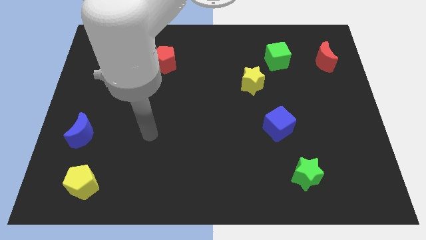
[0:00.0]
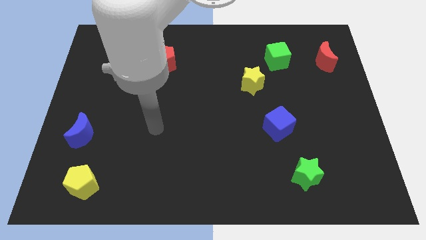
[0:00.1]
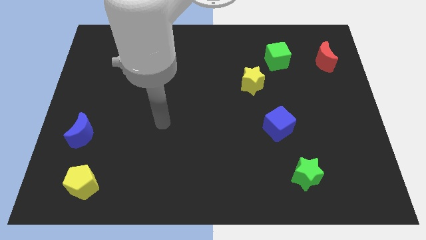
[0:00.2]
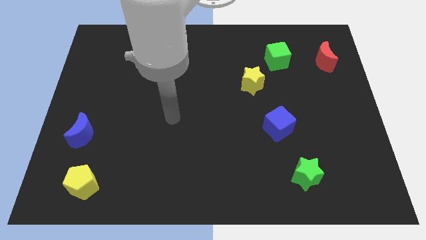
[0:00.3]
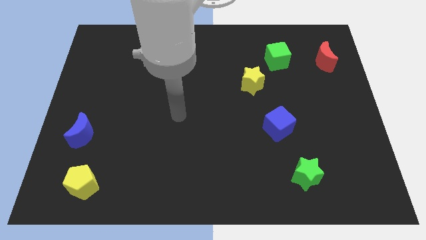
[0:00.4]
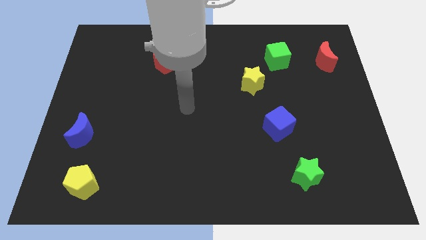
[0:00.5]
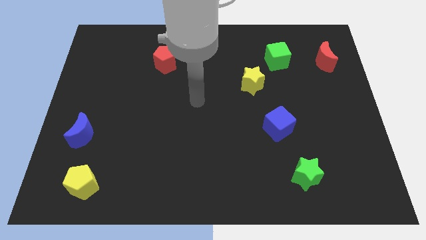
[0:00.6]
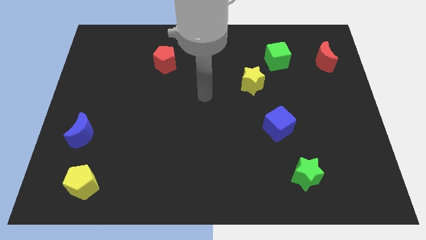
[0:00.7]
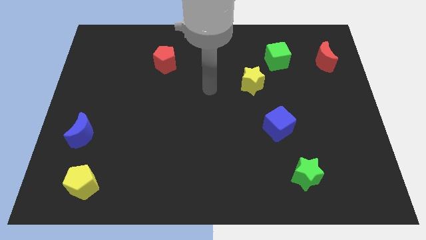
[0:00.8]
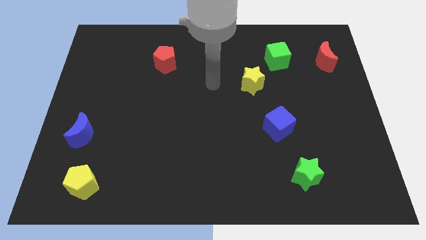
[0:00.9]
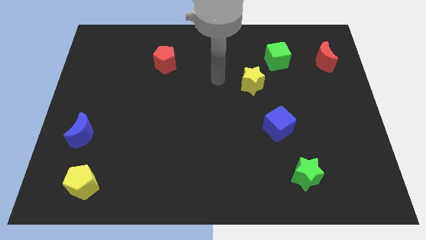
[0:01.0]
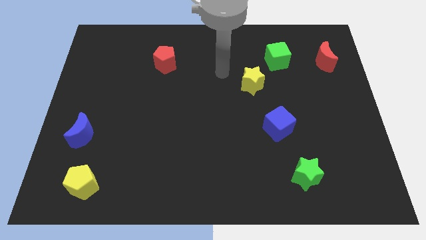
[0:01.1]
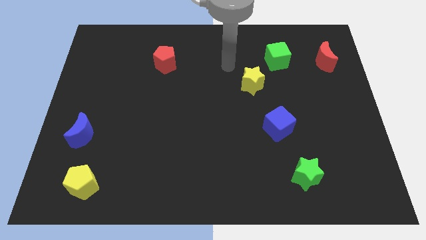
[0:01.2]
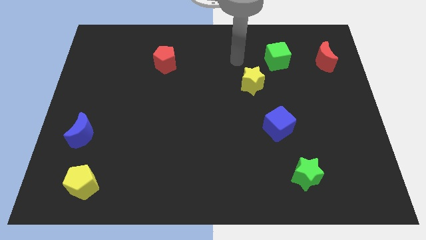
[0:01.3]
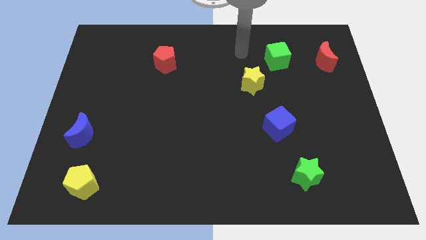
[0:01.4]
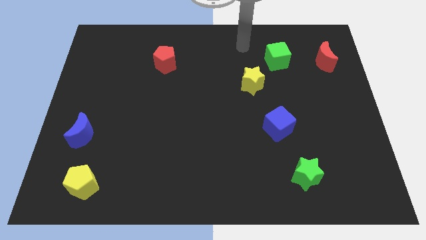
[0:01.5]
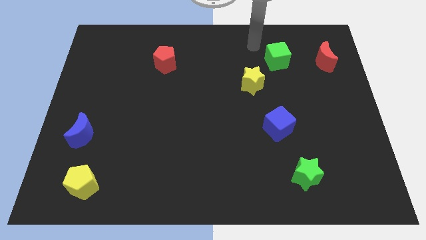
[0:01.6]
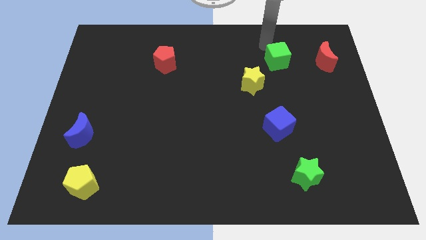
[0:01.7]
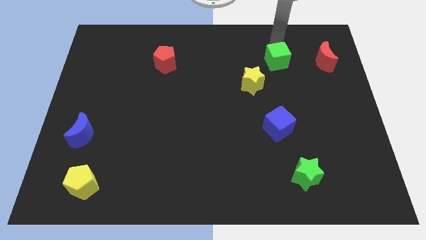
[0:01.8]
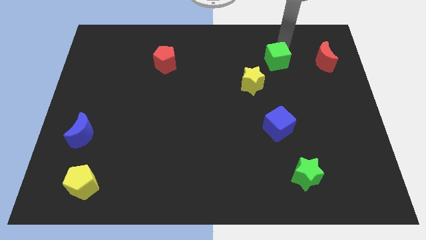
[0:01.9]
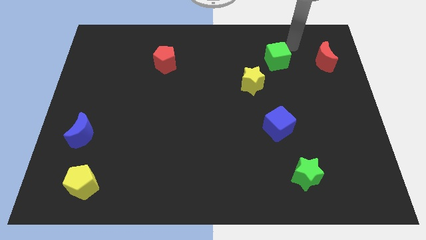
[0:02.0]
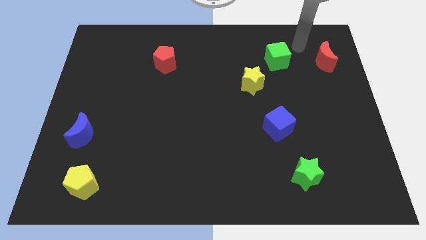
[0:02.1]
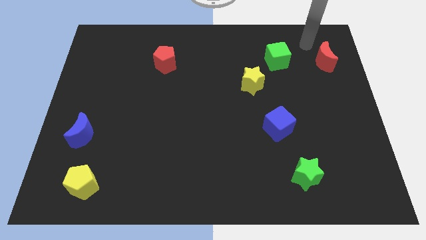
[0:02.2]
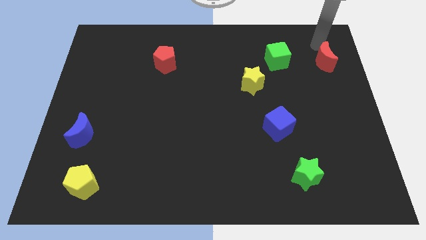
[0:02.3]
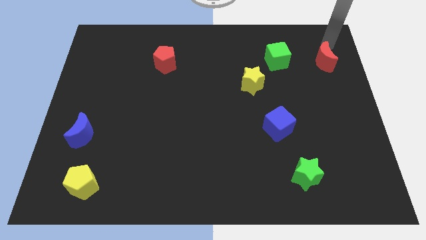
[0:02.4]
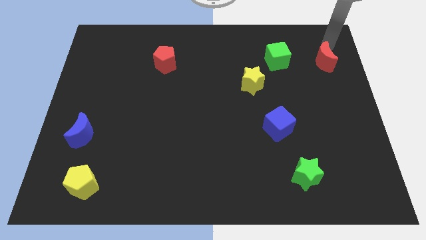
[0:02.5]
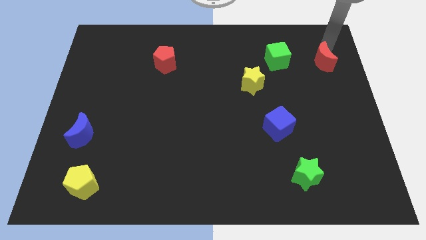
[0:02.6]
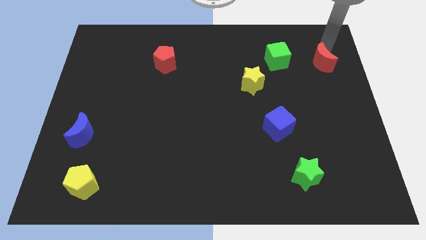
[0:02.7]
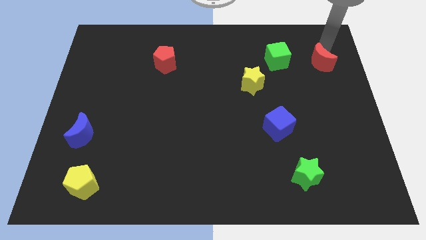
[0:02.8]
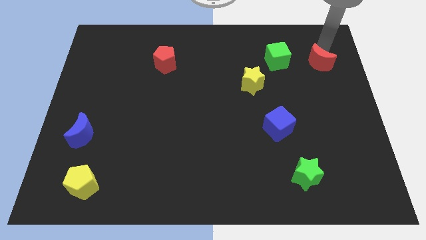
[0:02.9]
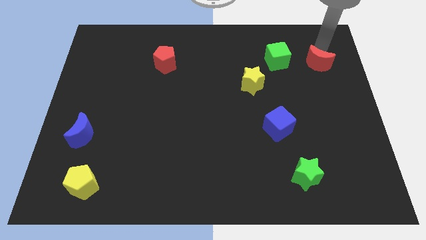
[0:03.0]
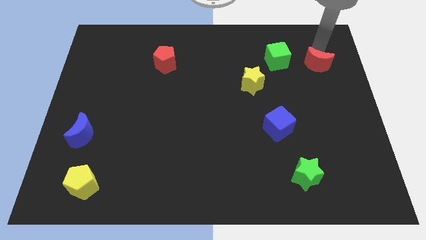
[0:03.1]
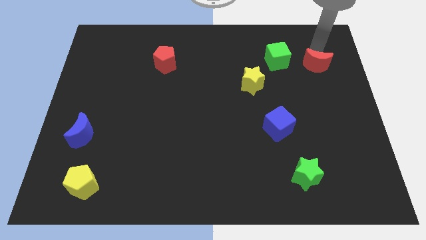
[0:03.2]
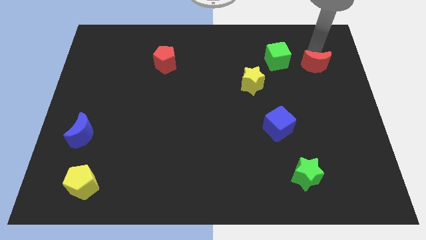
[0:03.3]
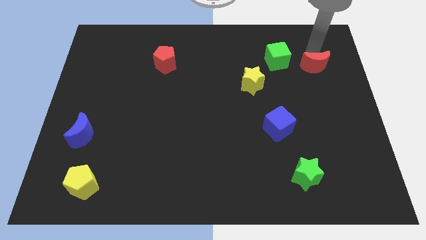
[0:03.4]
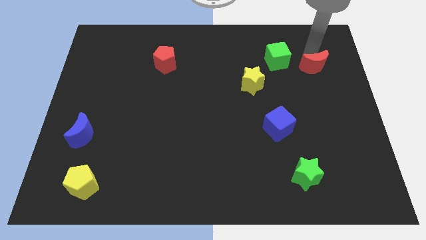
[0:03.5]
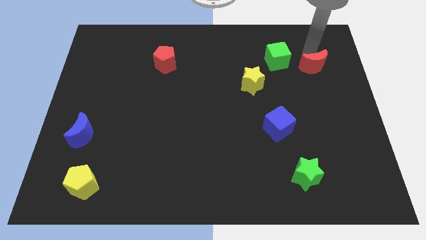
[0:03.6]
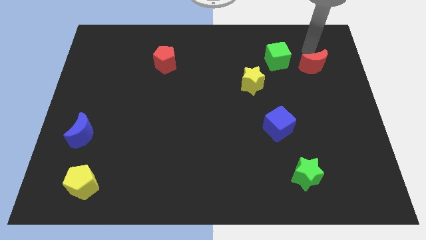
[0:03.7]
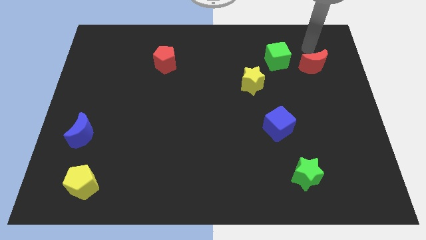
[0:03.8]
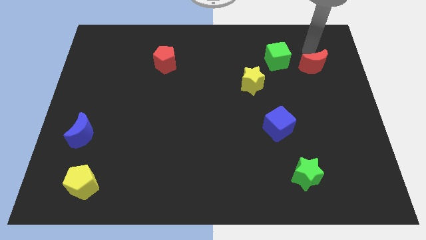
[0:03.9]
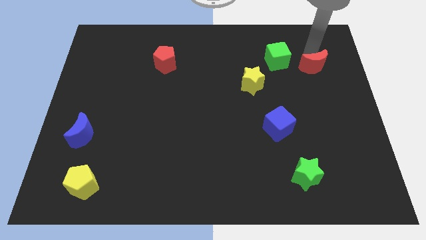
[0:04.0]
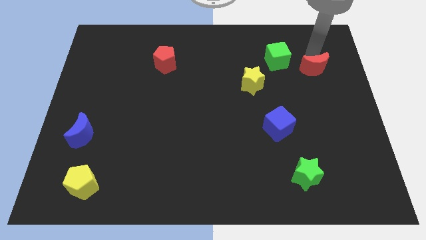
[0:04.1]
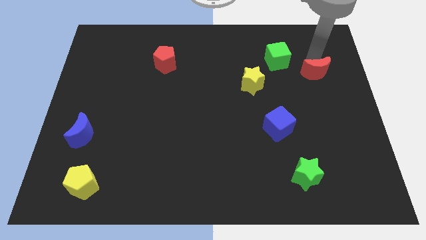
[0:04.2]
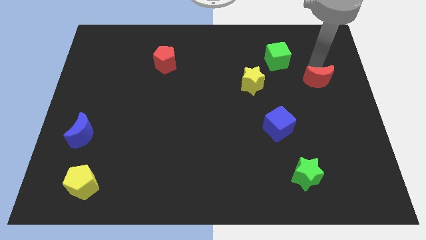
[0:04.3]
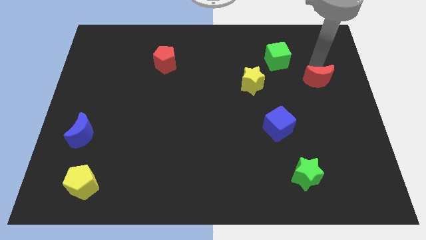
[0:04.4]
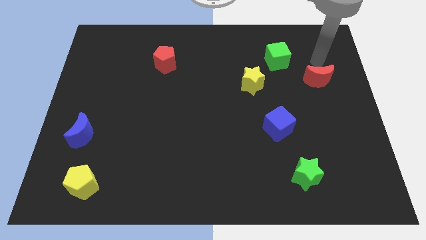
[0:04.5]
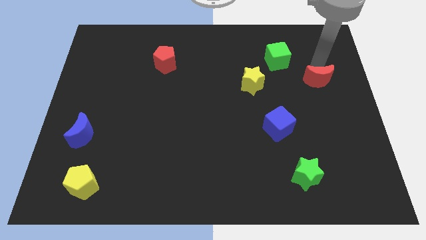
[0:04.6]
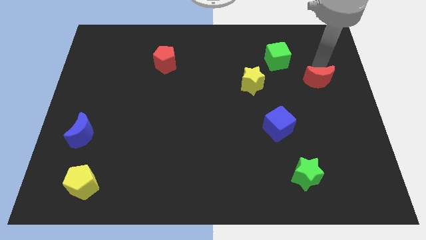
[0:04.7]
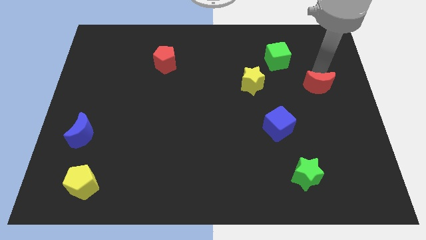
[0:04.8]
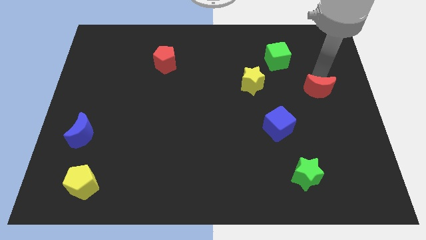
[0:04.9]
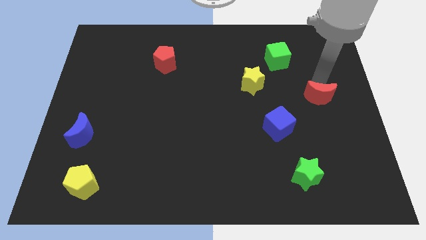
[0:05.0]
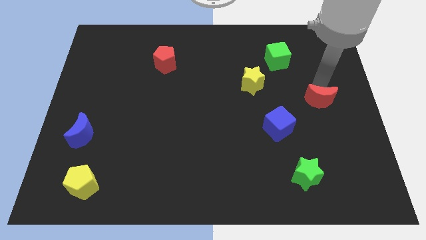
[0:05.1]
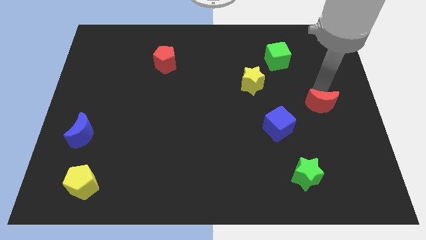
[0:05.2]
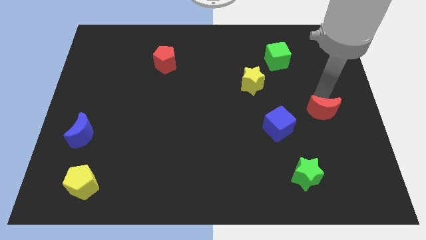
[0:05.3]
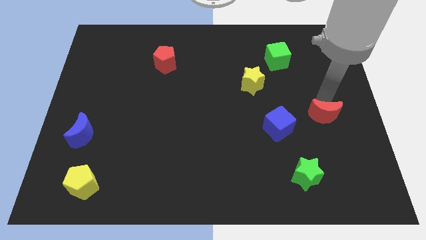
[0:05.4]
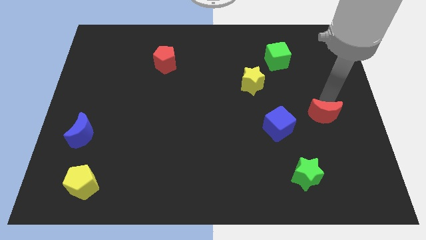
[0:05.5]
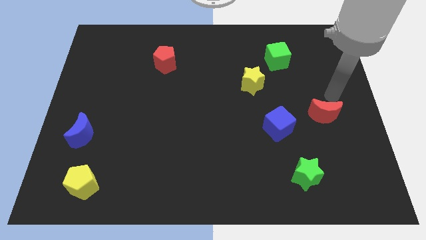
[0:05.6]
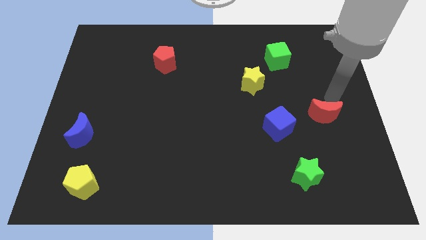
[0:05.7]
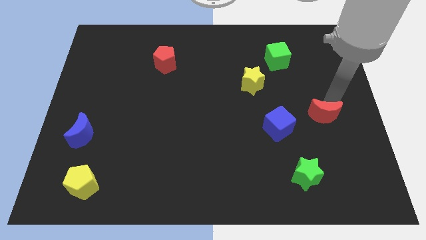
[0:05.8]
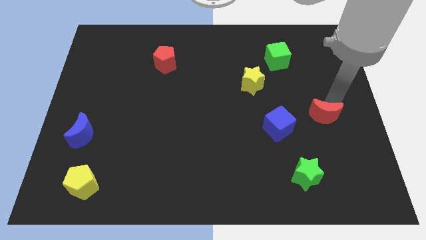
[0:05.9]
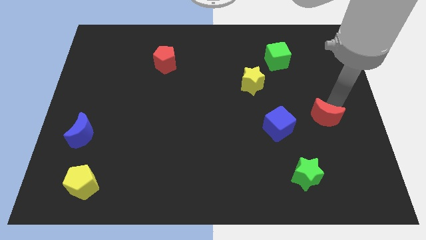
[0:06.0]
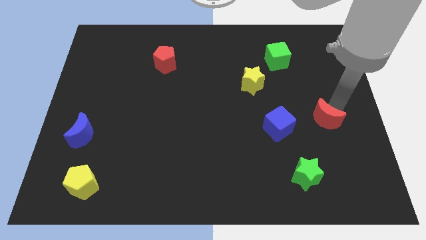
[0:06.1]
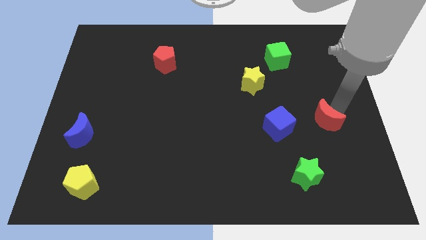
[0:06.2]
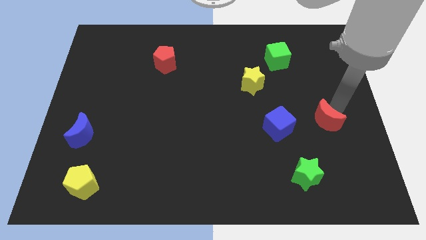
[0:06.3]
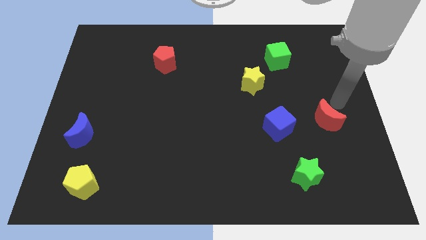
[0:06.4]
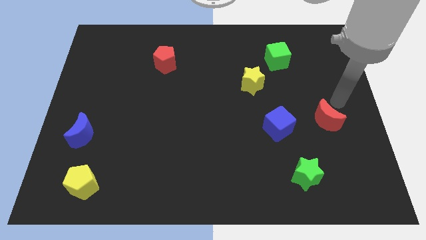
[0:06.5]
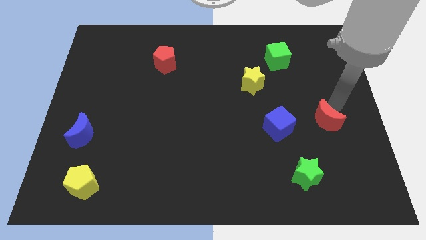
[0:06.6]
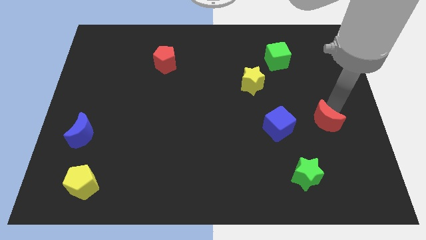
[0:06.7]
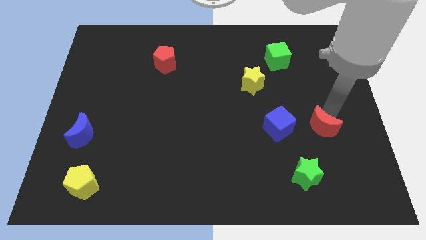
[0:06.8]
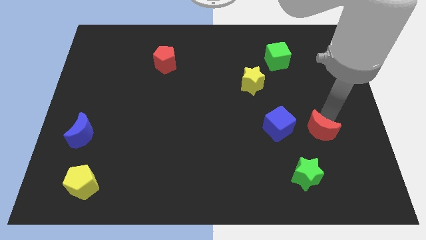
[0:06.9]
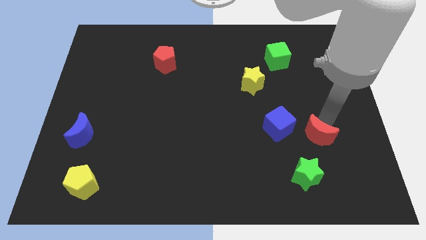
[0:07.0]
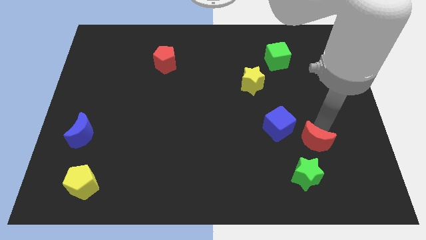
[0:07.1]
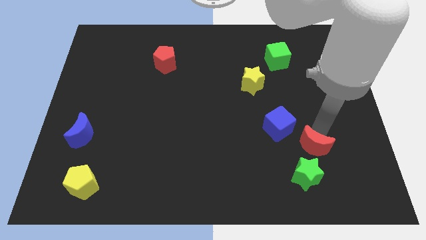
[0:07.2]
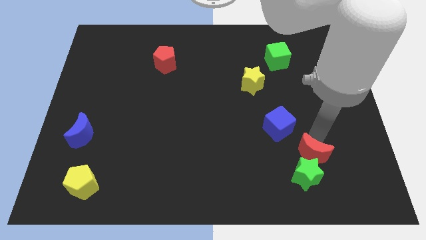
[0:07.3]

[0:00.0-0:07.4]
put the red moon next to the green star
